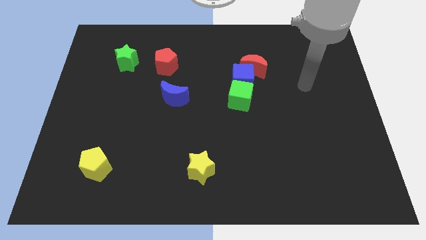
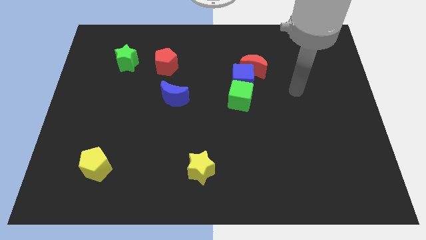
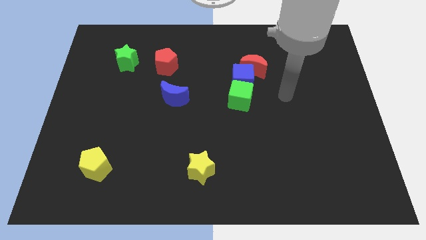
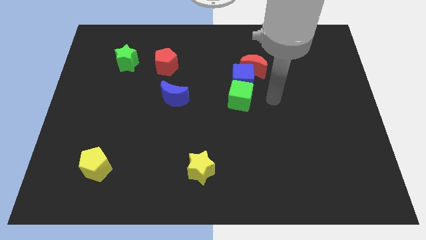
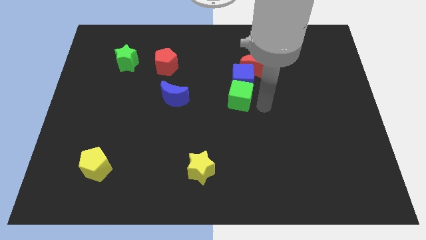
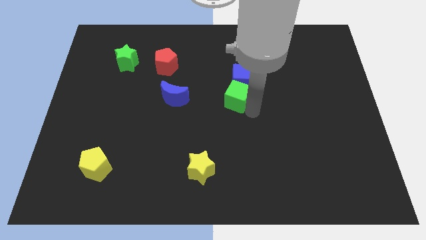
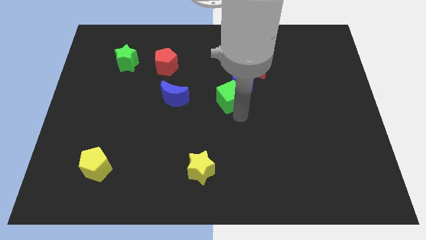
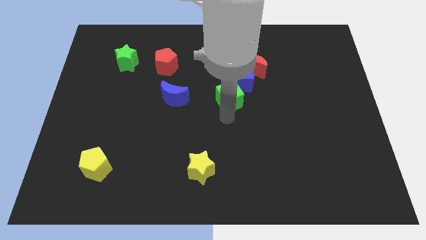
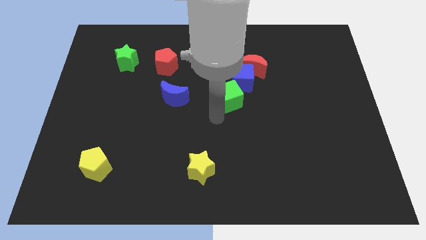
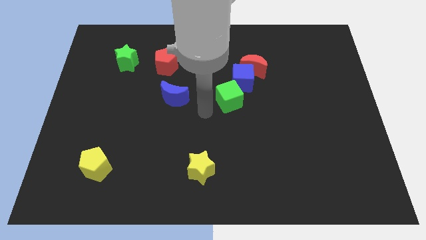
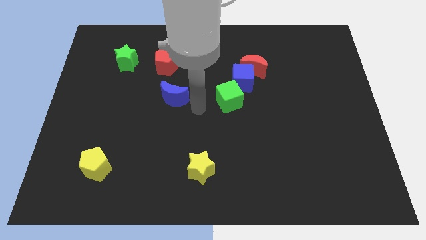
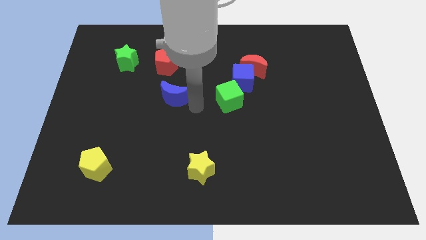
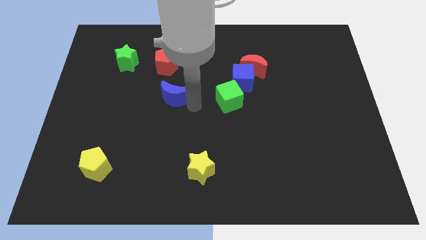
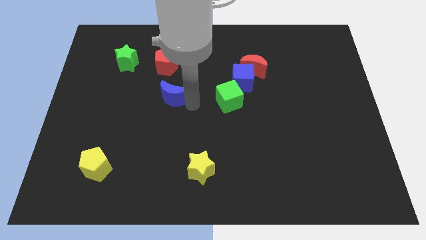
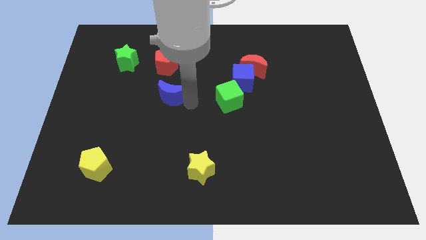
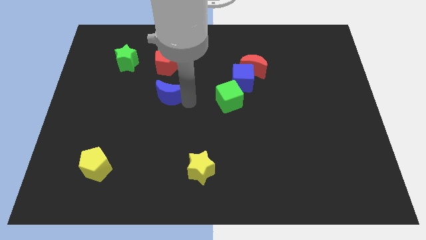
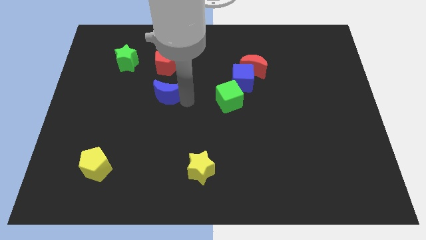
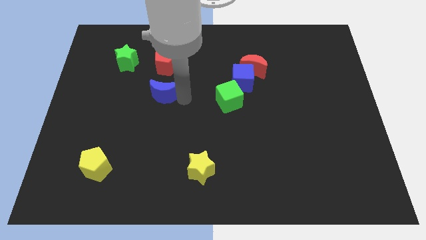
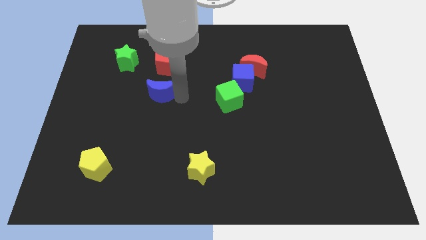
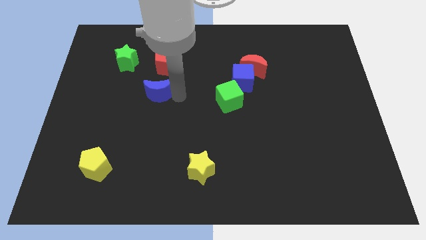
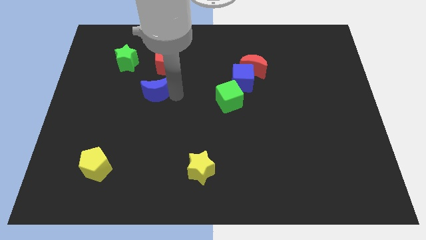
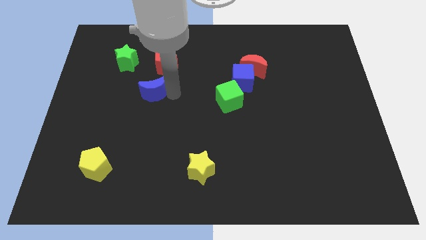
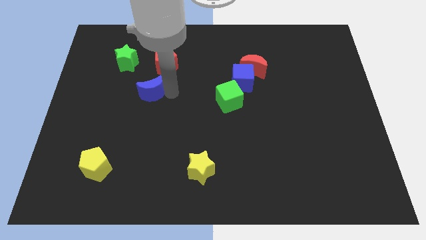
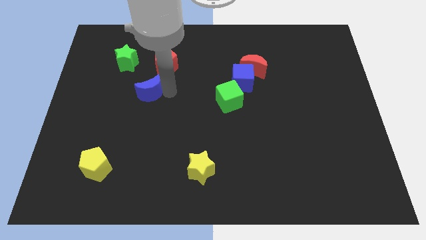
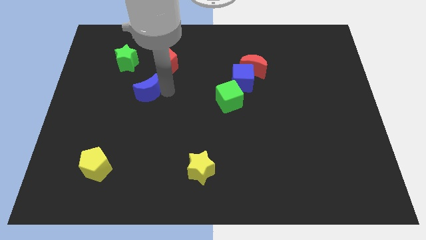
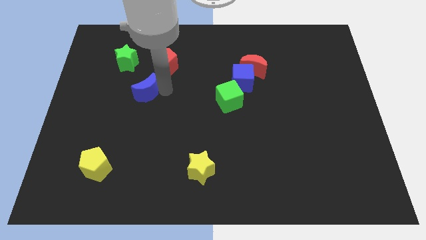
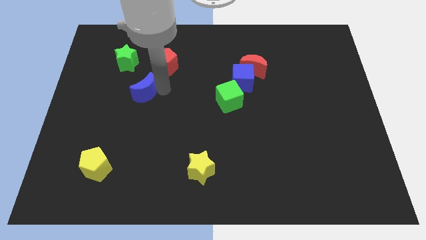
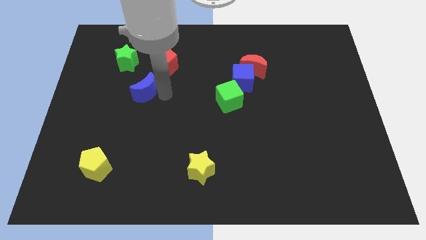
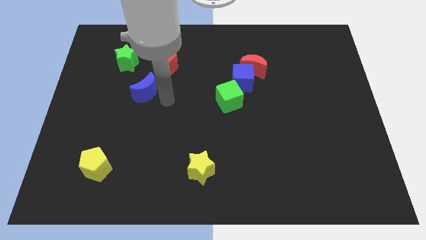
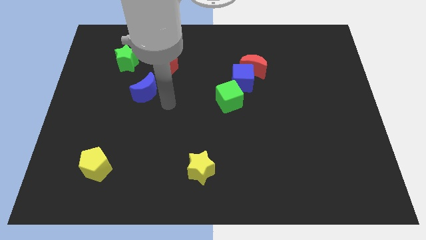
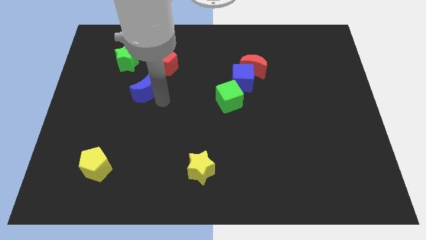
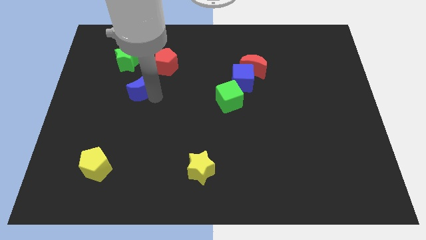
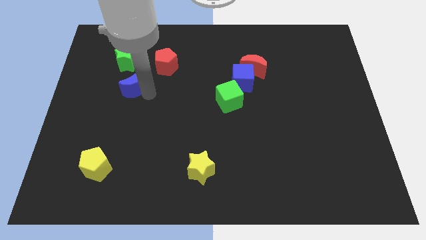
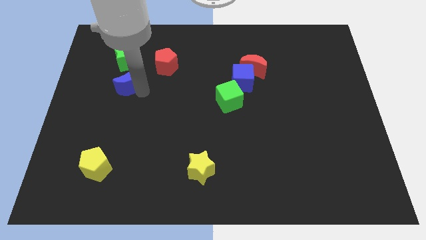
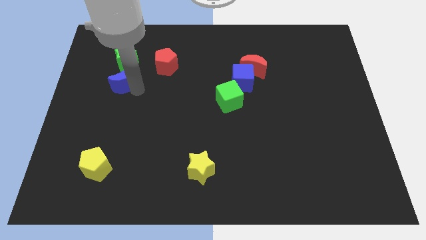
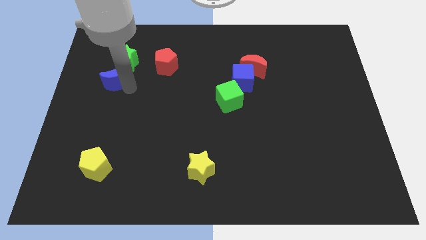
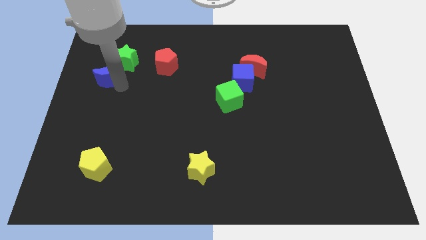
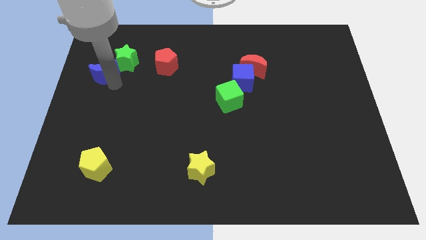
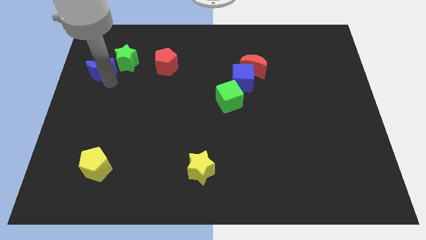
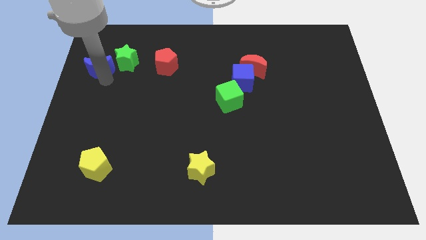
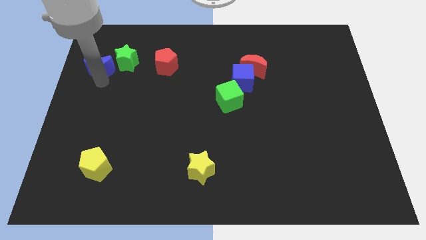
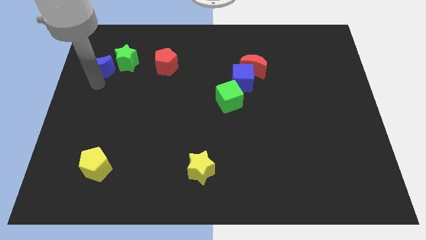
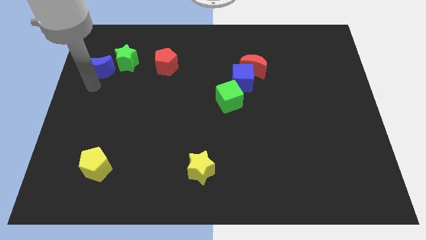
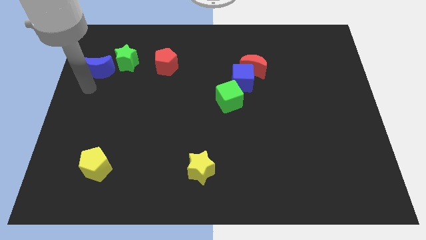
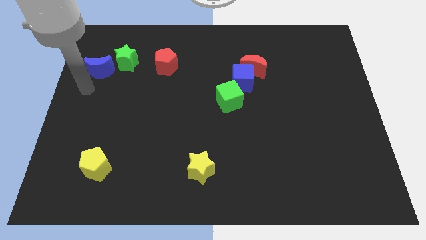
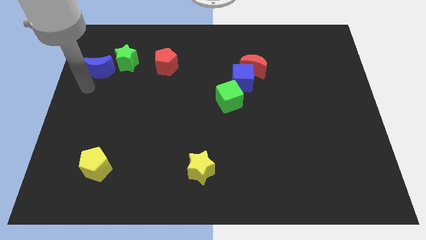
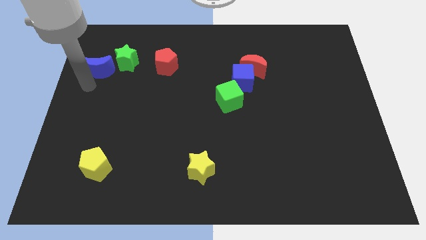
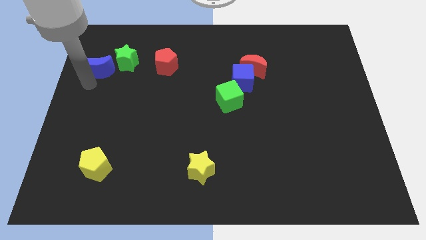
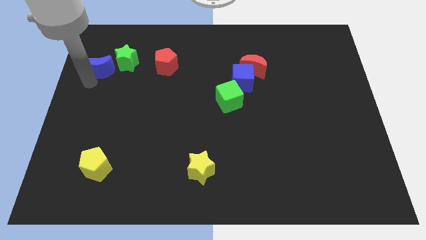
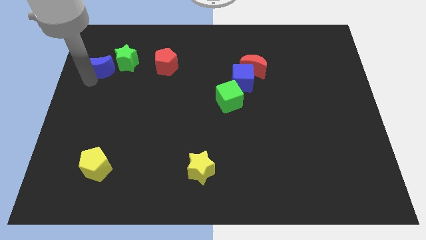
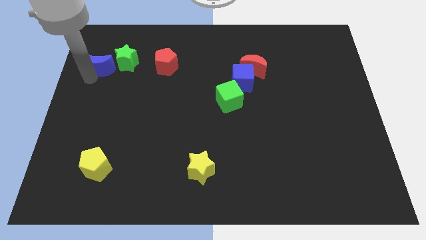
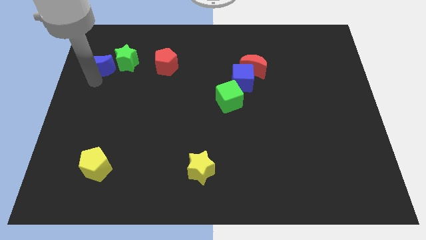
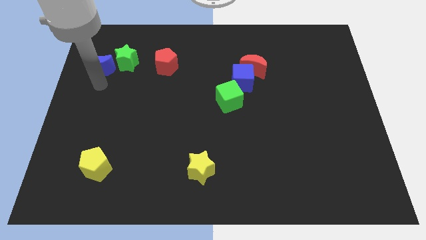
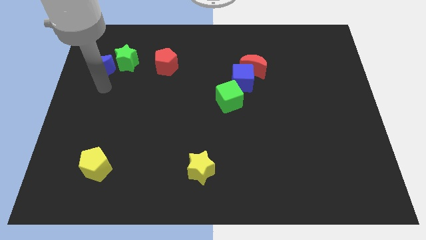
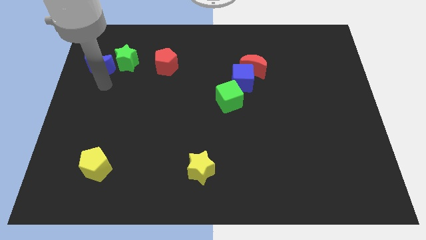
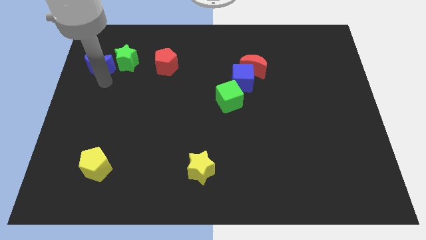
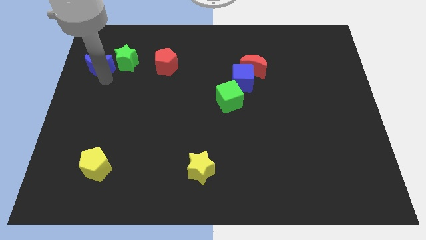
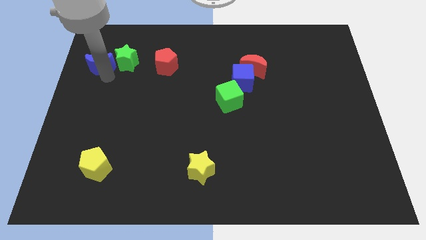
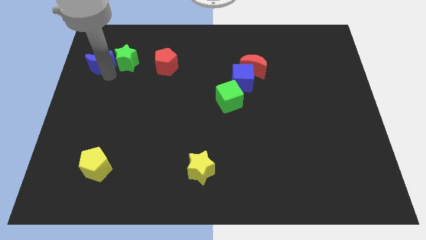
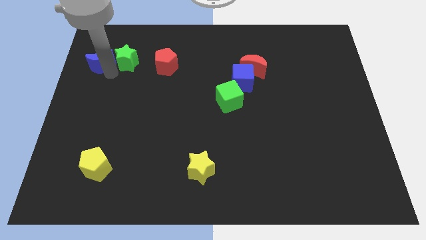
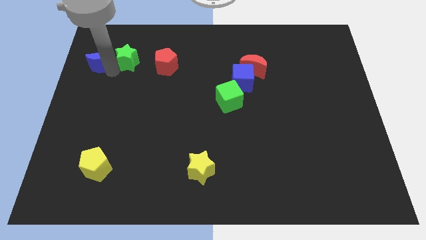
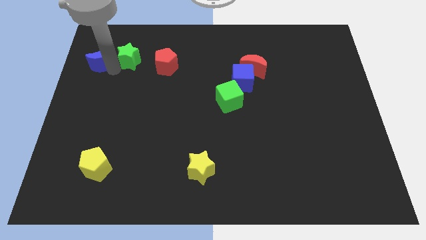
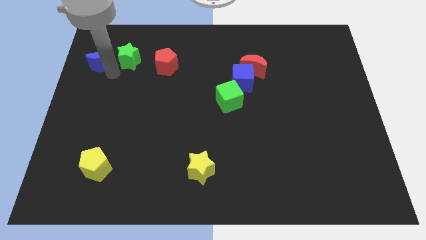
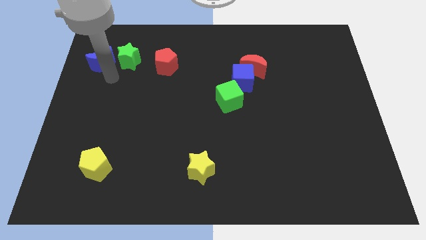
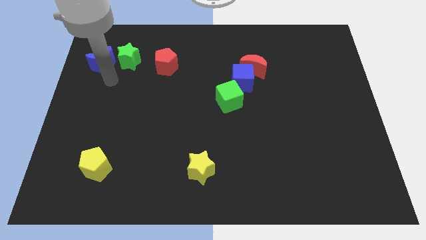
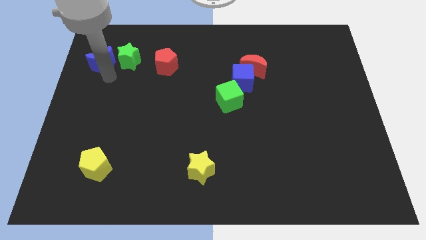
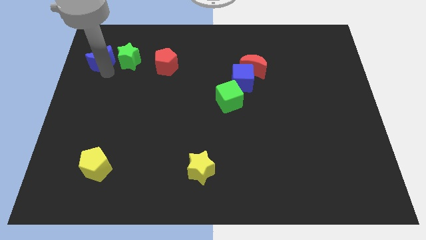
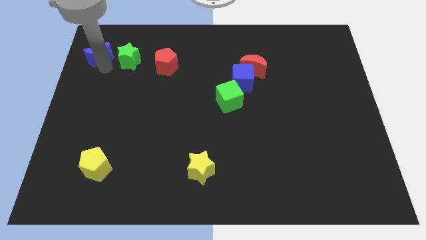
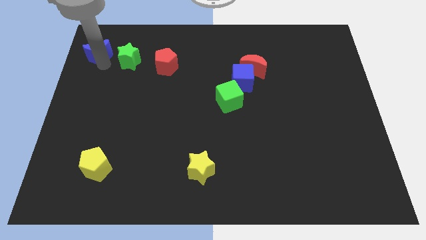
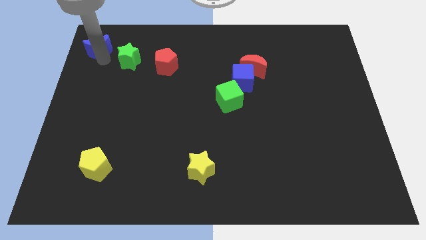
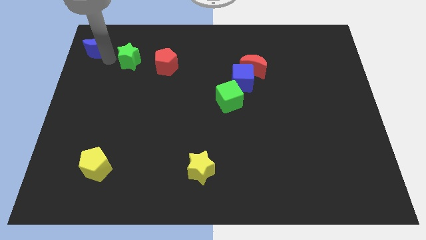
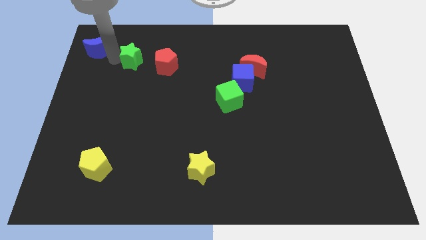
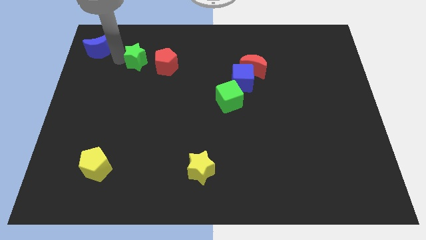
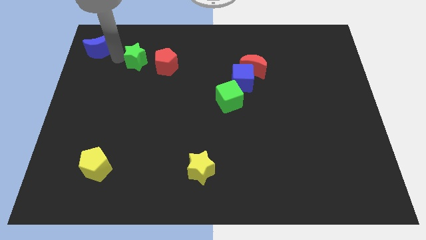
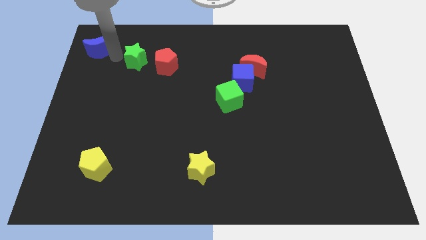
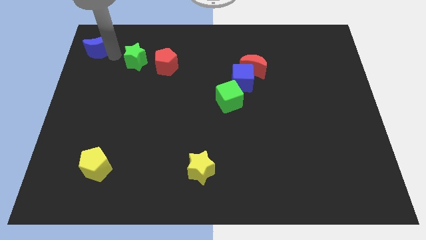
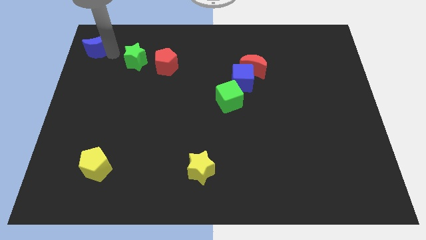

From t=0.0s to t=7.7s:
put the blue moon to the top left
